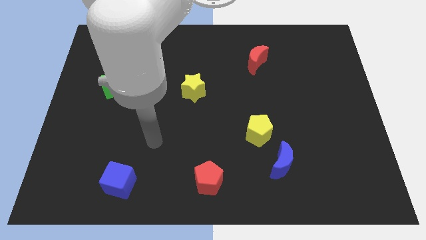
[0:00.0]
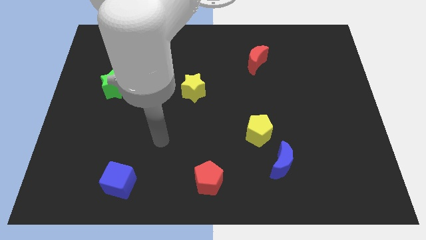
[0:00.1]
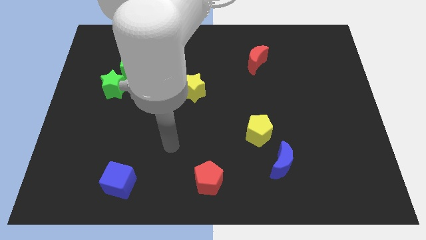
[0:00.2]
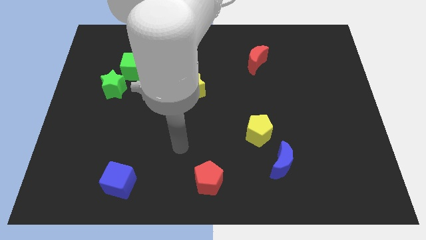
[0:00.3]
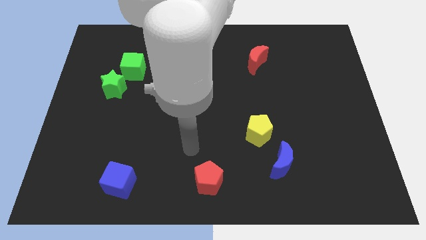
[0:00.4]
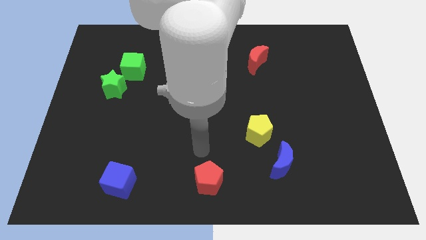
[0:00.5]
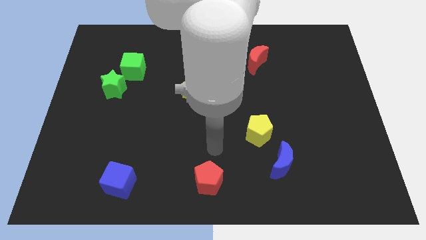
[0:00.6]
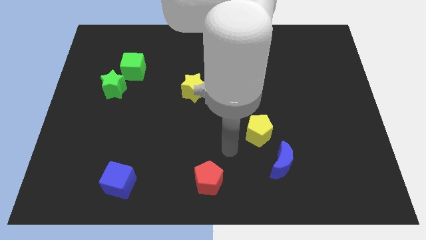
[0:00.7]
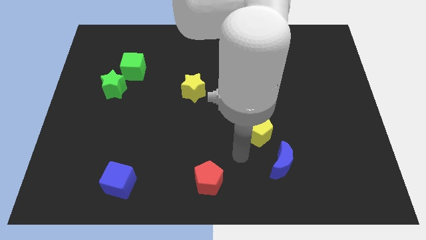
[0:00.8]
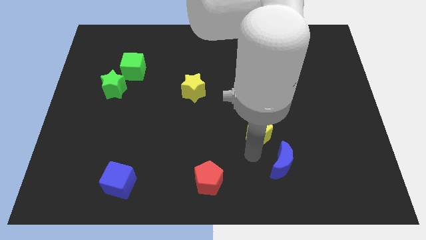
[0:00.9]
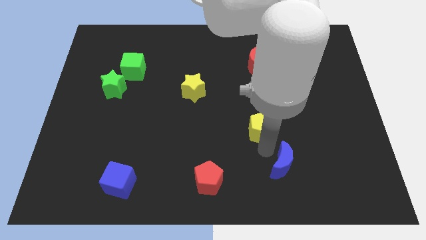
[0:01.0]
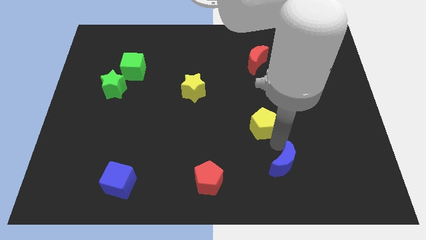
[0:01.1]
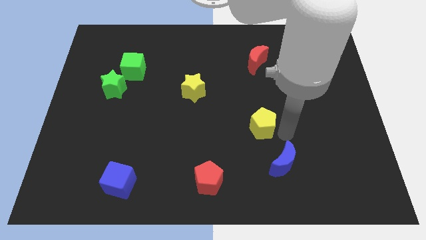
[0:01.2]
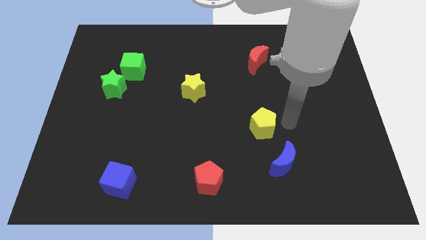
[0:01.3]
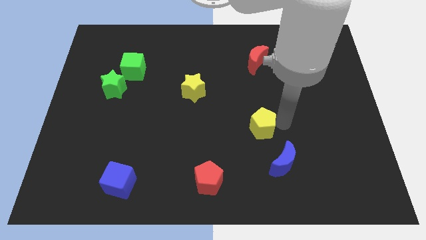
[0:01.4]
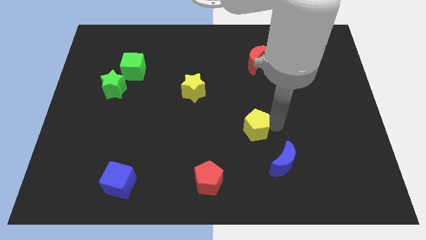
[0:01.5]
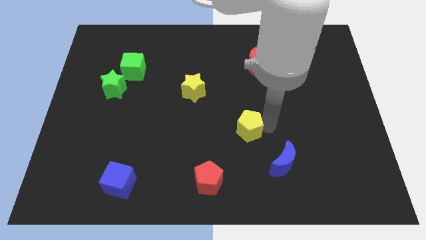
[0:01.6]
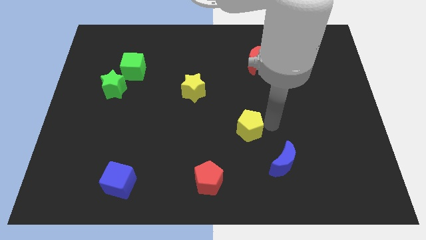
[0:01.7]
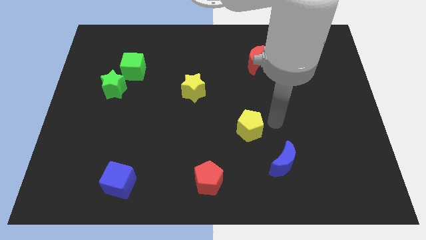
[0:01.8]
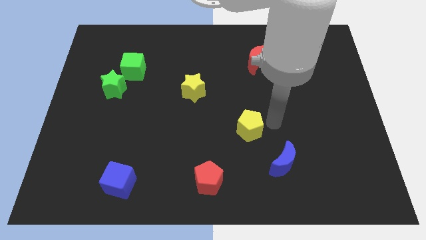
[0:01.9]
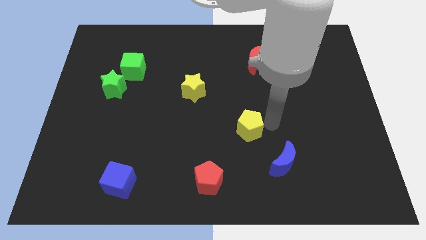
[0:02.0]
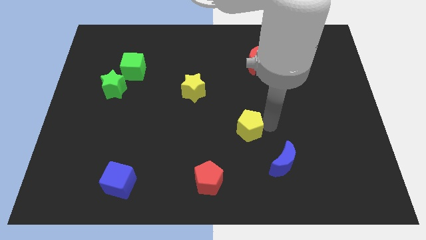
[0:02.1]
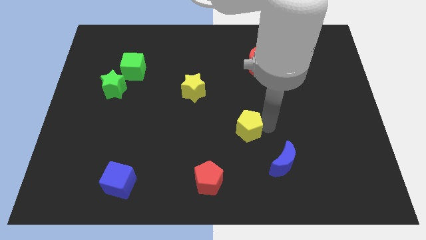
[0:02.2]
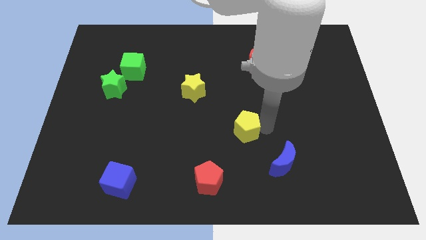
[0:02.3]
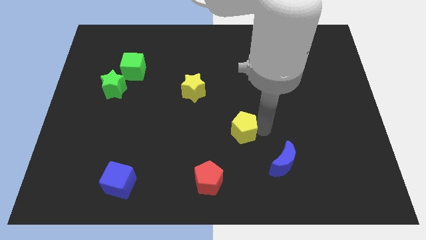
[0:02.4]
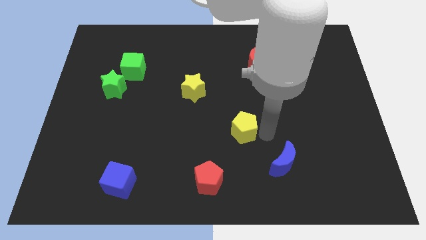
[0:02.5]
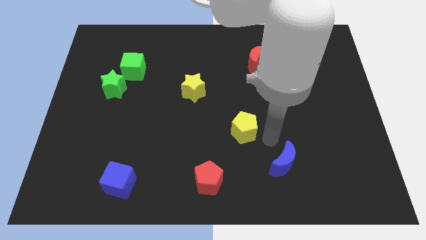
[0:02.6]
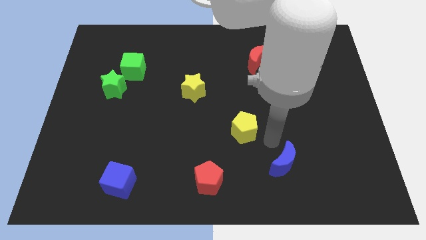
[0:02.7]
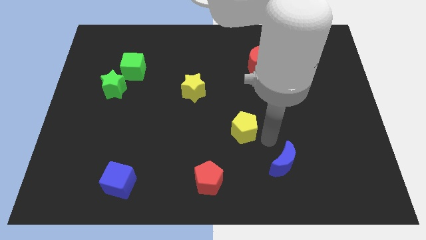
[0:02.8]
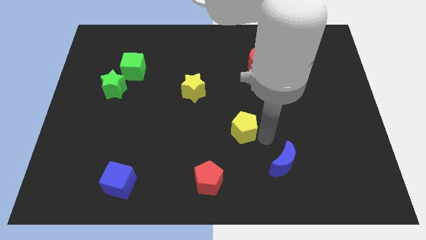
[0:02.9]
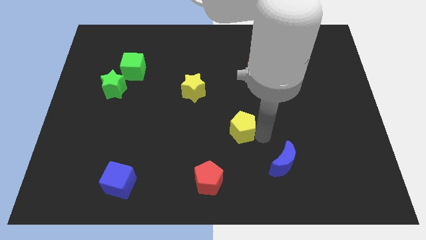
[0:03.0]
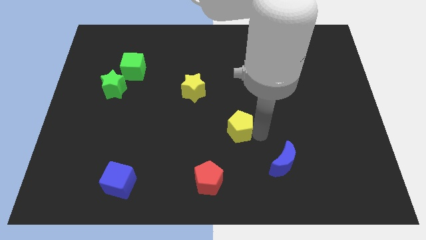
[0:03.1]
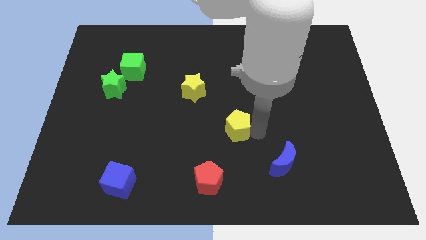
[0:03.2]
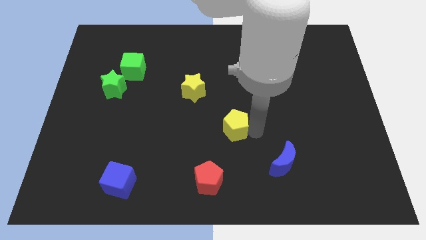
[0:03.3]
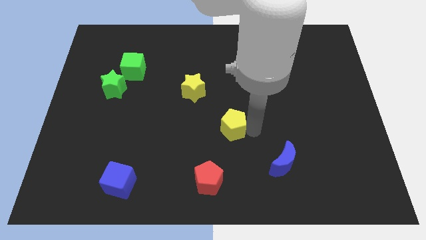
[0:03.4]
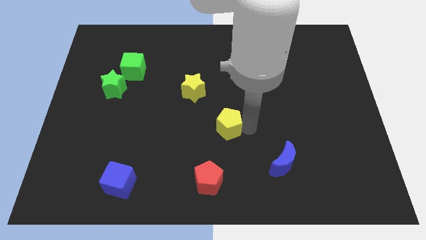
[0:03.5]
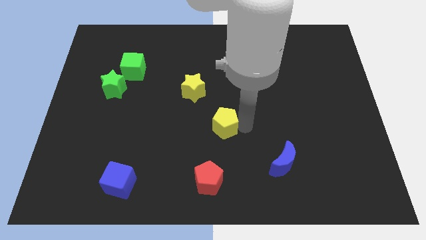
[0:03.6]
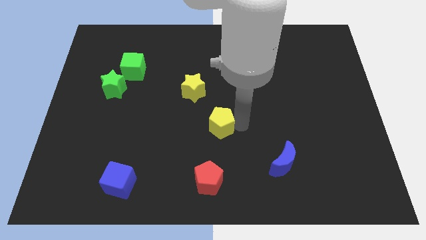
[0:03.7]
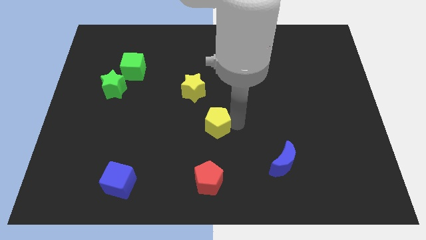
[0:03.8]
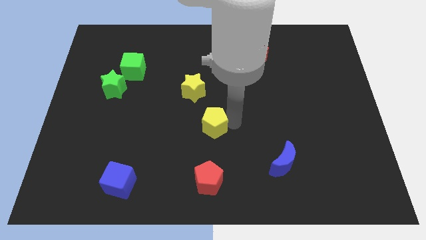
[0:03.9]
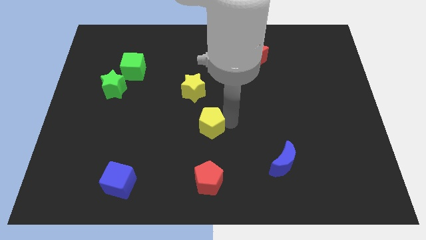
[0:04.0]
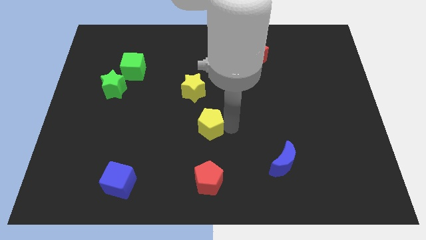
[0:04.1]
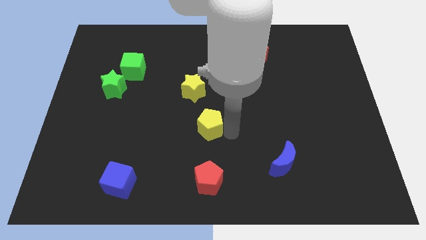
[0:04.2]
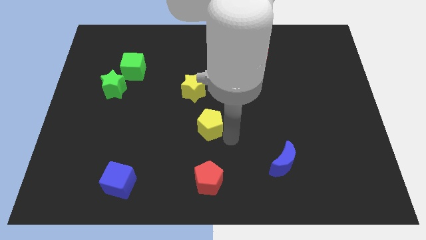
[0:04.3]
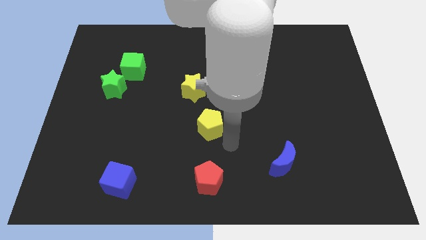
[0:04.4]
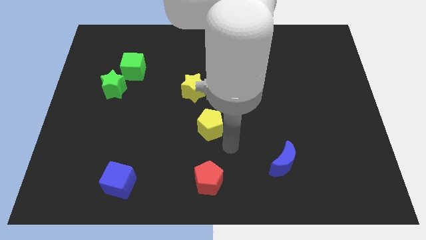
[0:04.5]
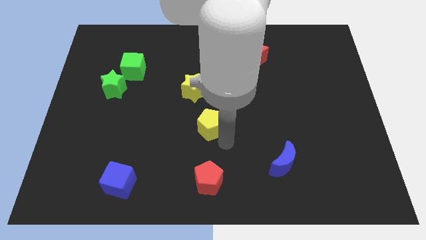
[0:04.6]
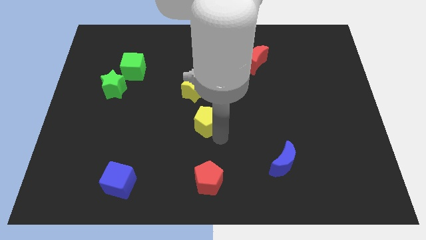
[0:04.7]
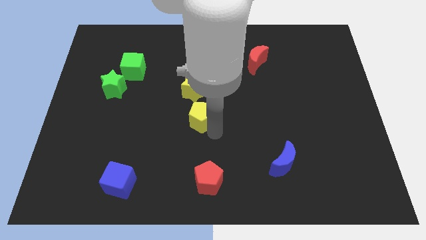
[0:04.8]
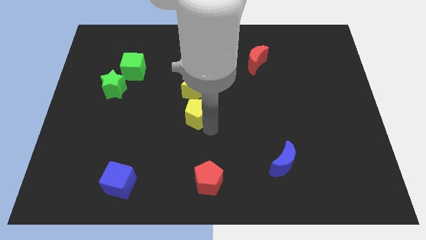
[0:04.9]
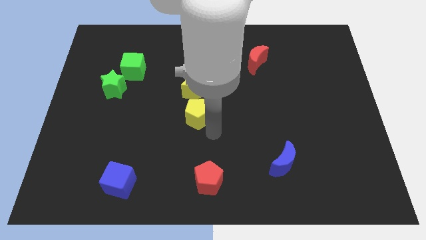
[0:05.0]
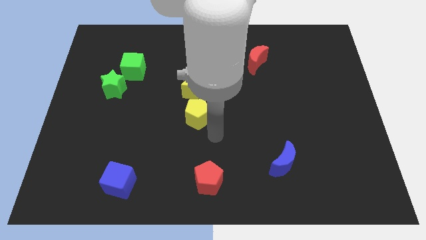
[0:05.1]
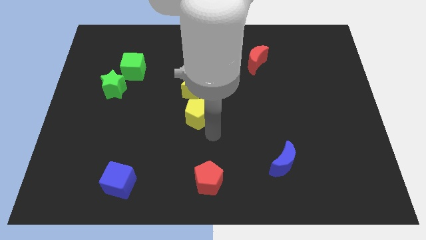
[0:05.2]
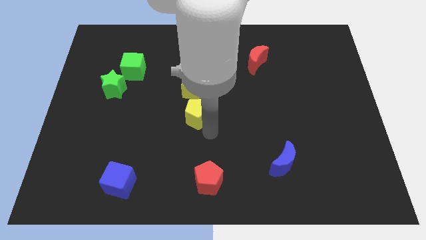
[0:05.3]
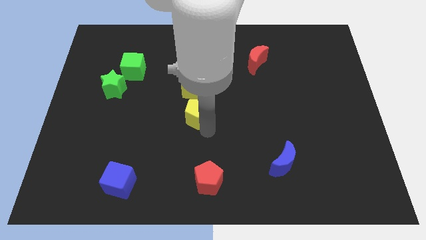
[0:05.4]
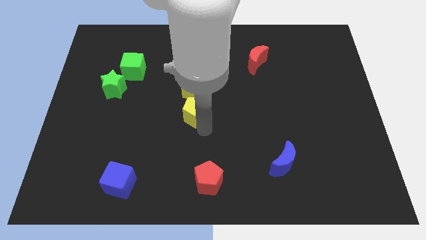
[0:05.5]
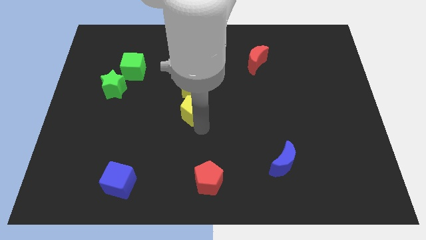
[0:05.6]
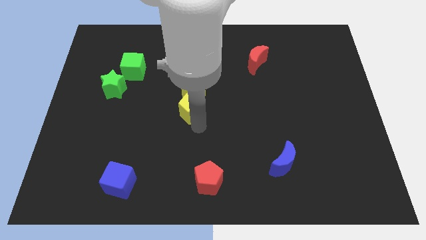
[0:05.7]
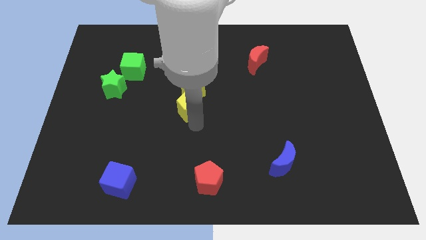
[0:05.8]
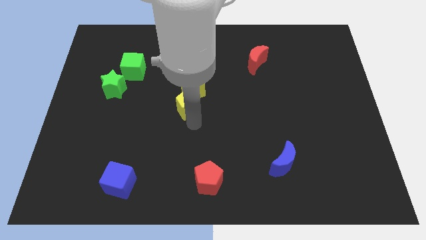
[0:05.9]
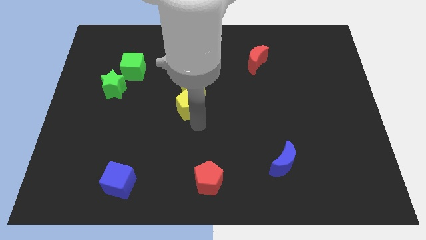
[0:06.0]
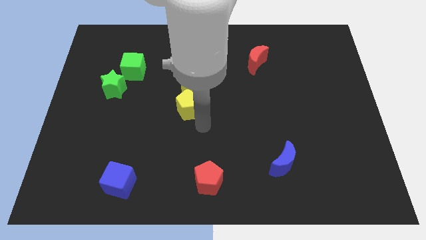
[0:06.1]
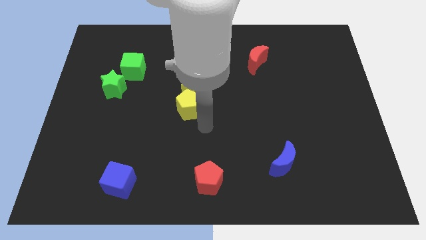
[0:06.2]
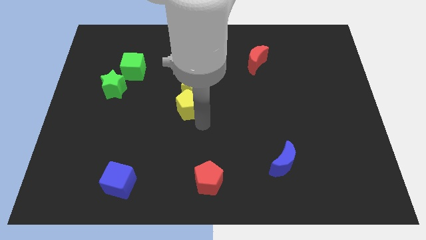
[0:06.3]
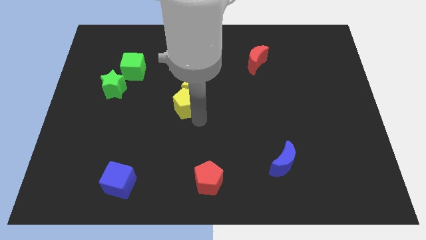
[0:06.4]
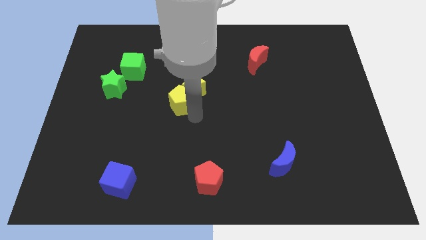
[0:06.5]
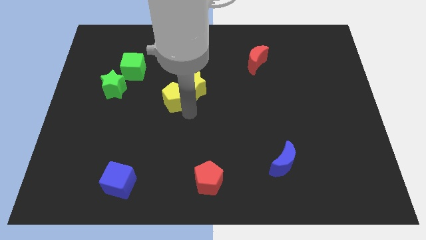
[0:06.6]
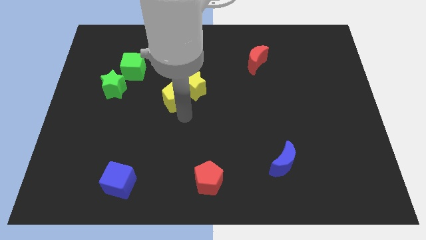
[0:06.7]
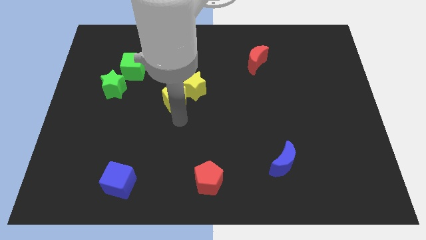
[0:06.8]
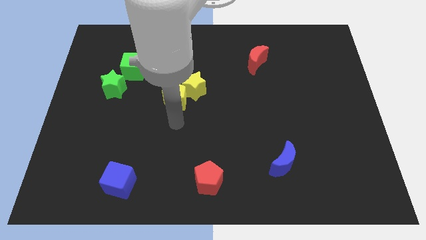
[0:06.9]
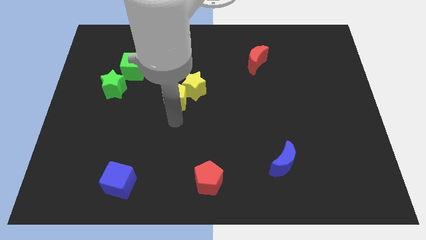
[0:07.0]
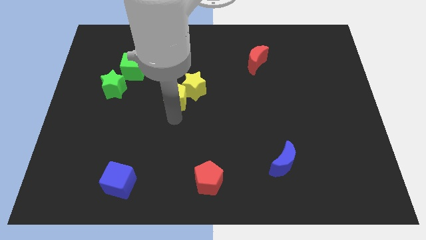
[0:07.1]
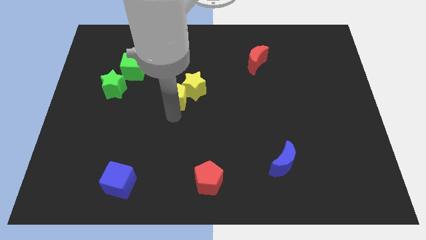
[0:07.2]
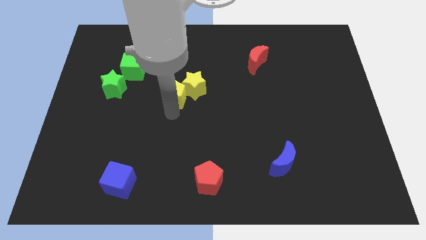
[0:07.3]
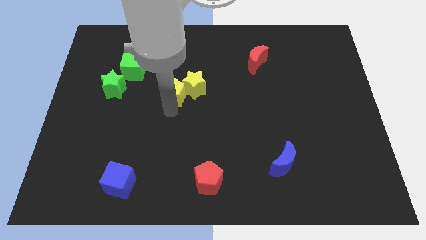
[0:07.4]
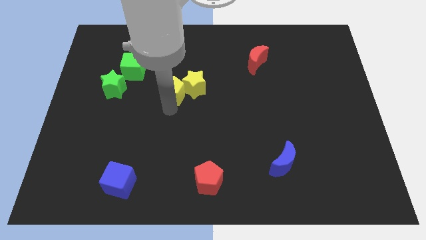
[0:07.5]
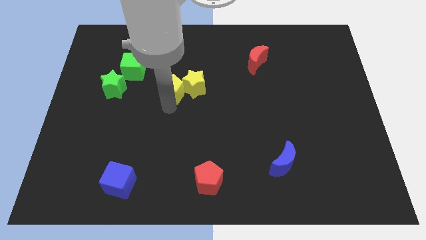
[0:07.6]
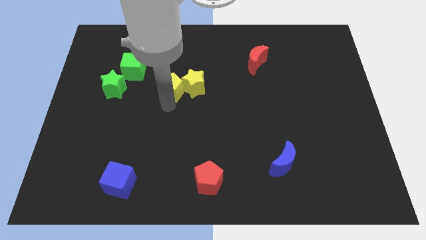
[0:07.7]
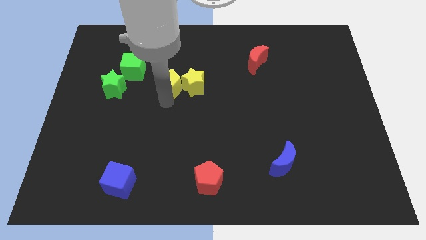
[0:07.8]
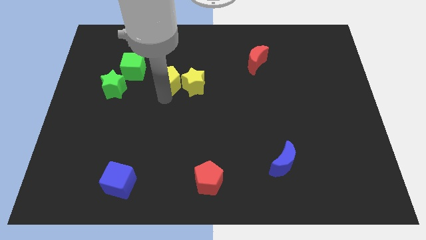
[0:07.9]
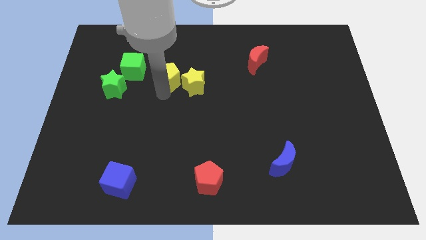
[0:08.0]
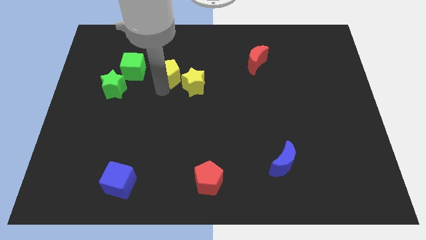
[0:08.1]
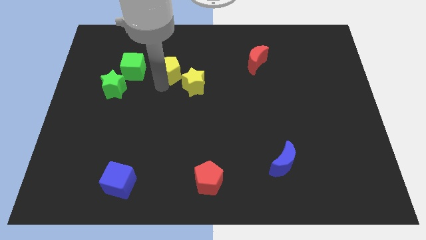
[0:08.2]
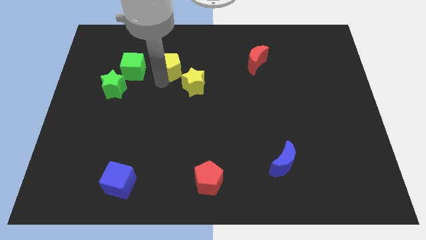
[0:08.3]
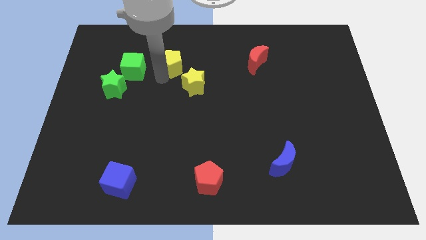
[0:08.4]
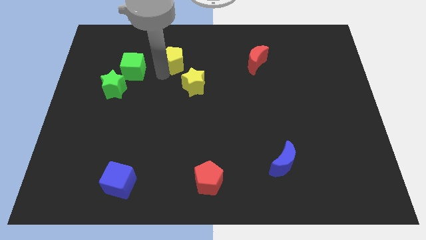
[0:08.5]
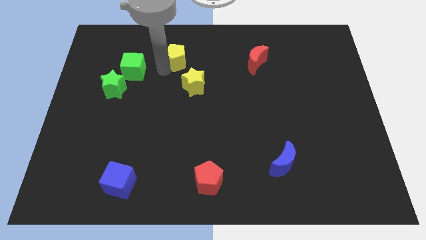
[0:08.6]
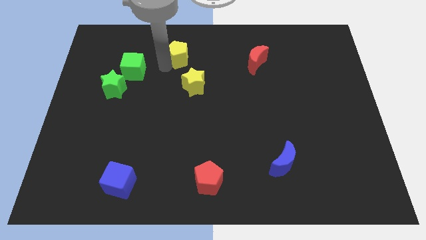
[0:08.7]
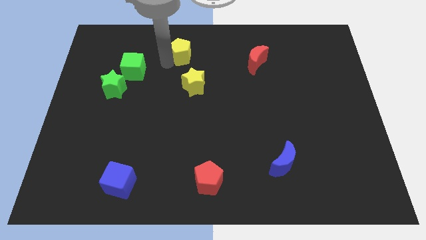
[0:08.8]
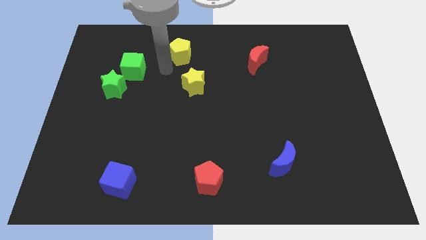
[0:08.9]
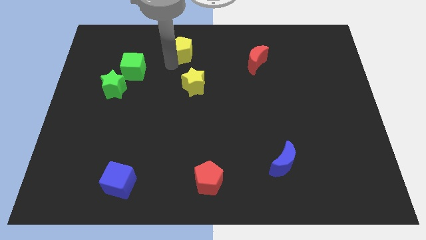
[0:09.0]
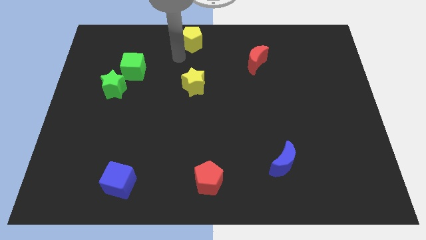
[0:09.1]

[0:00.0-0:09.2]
move the yellow pentagon to the top side
